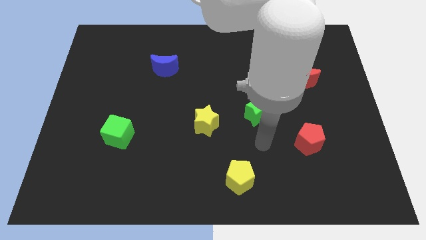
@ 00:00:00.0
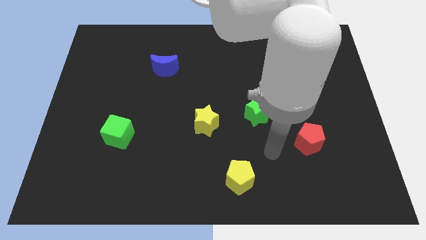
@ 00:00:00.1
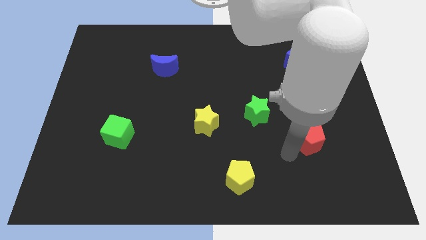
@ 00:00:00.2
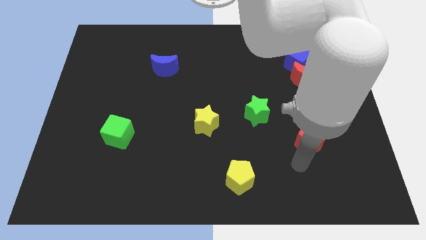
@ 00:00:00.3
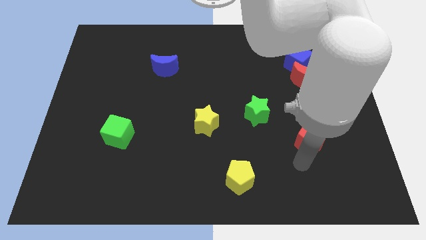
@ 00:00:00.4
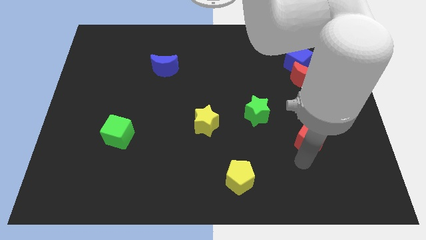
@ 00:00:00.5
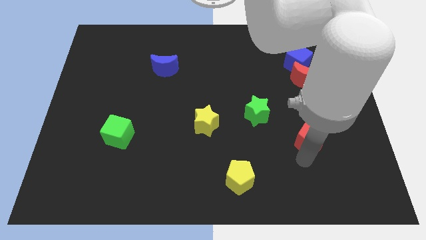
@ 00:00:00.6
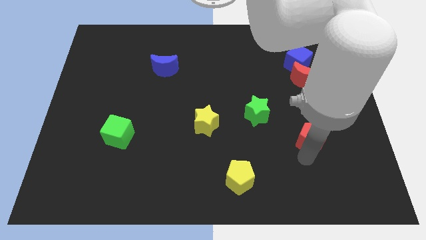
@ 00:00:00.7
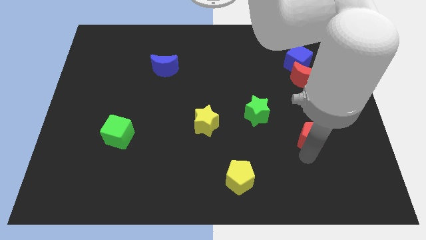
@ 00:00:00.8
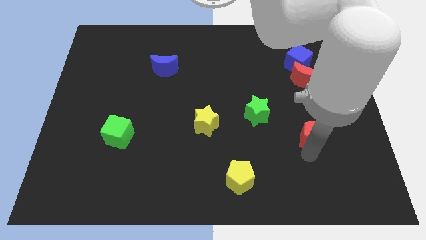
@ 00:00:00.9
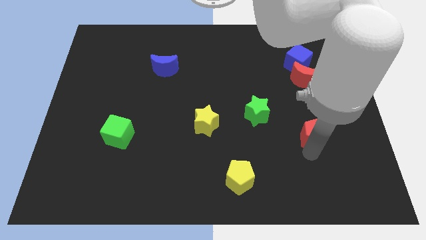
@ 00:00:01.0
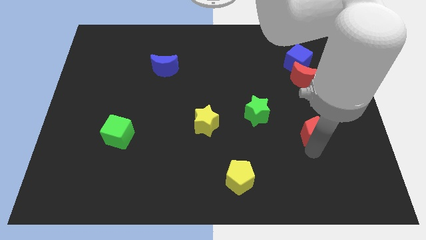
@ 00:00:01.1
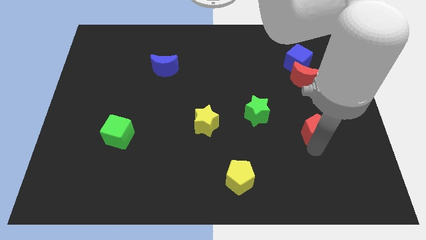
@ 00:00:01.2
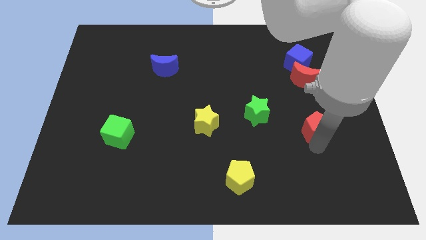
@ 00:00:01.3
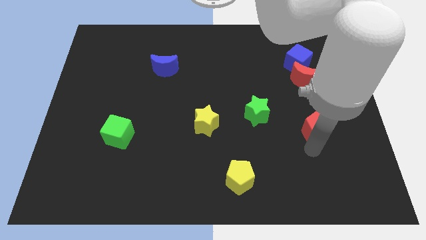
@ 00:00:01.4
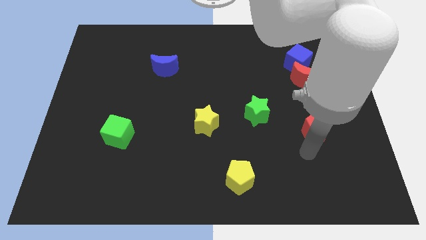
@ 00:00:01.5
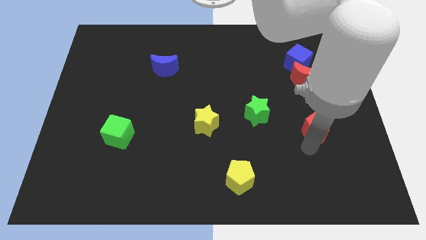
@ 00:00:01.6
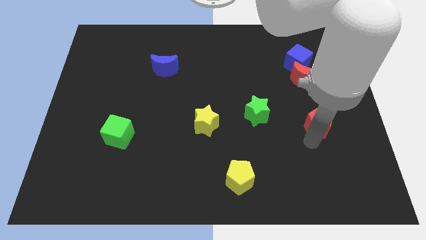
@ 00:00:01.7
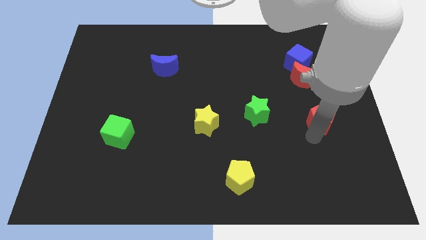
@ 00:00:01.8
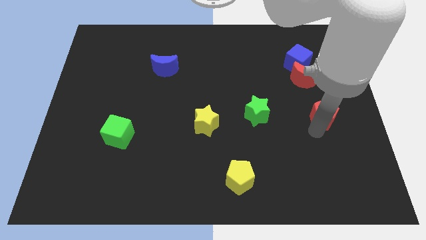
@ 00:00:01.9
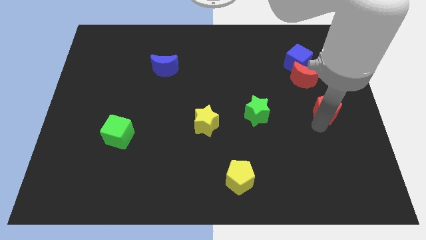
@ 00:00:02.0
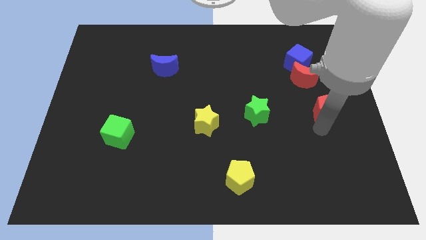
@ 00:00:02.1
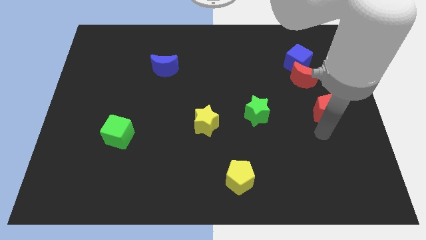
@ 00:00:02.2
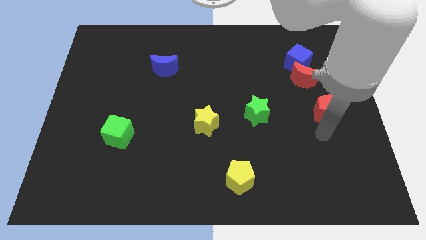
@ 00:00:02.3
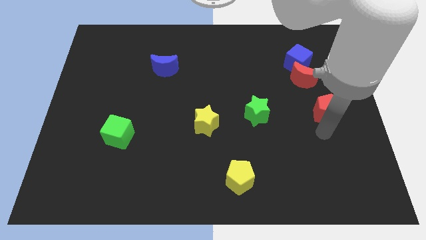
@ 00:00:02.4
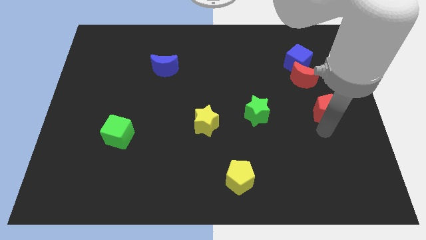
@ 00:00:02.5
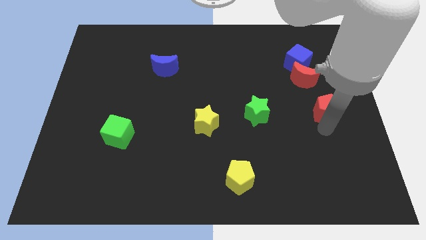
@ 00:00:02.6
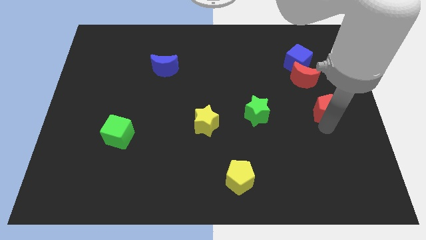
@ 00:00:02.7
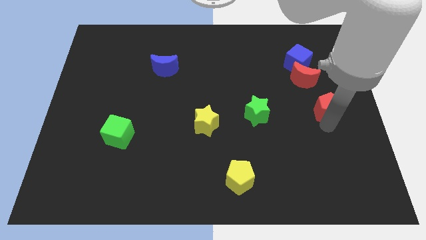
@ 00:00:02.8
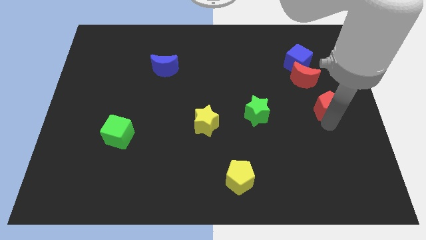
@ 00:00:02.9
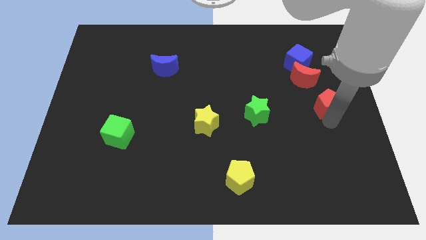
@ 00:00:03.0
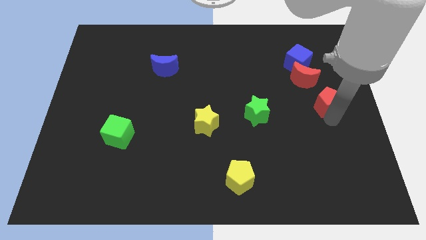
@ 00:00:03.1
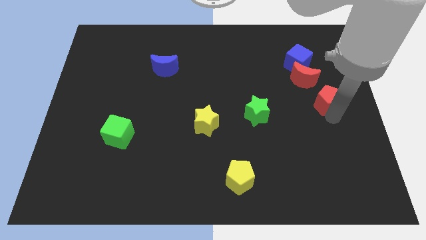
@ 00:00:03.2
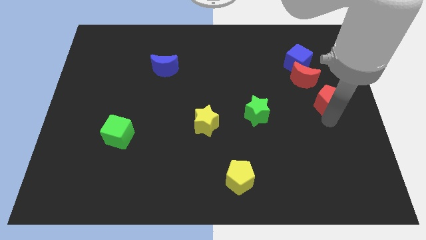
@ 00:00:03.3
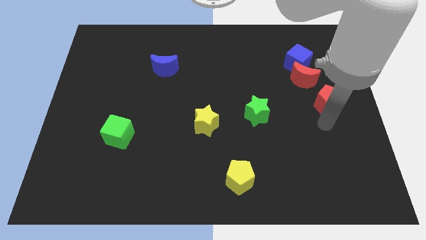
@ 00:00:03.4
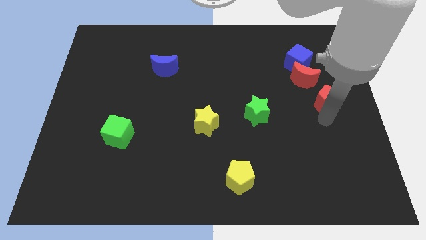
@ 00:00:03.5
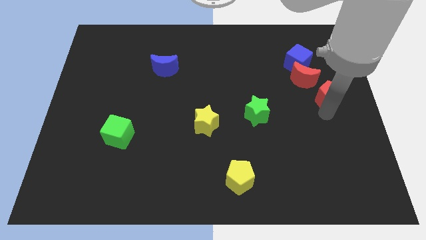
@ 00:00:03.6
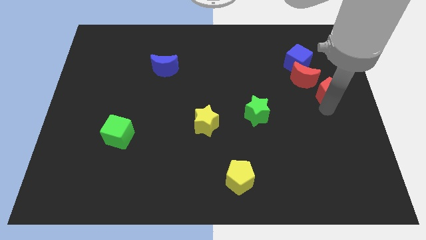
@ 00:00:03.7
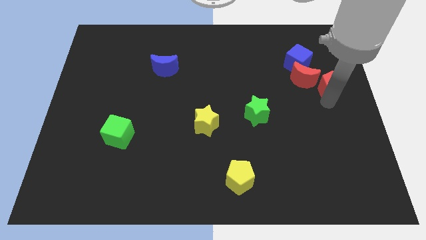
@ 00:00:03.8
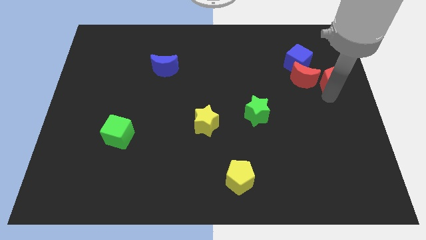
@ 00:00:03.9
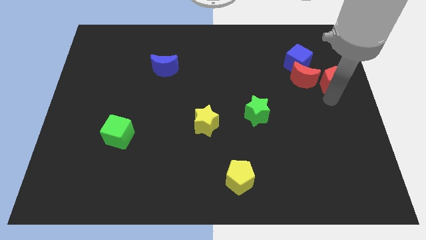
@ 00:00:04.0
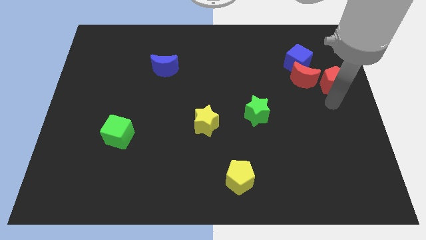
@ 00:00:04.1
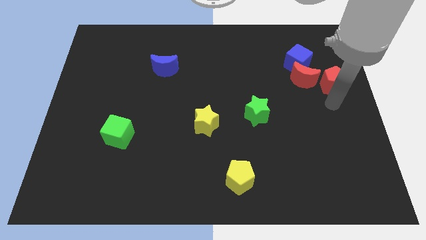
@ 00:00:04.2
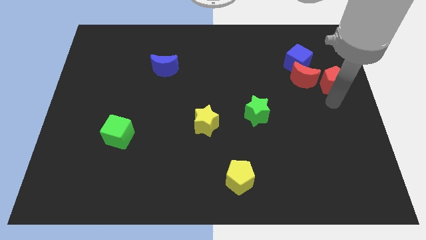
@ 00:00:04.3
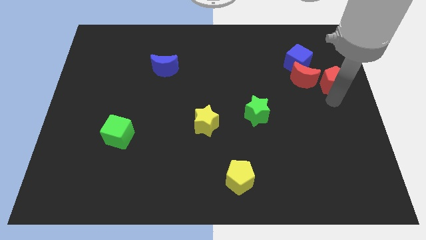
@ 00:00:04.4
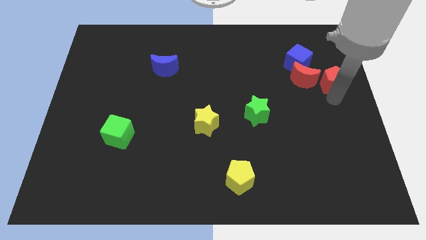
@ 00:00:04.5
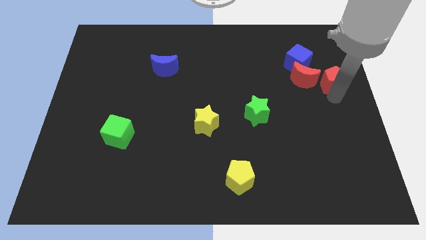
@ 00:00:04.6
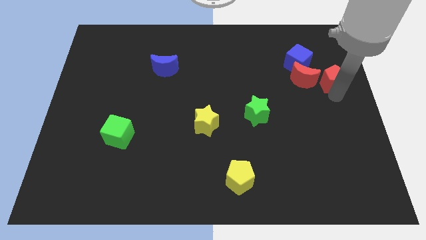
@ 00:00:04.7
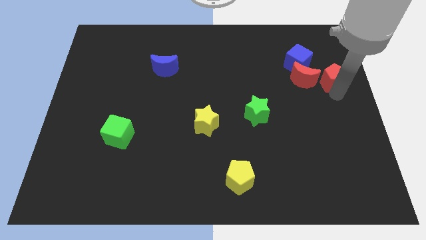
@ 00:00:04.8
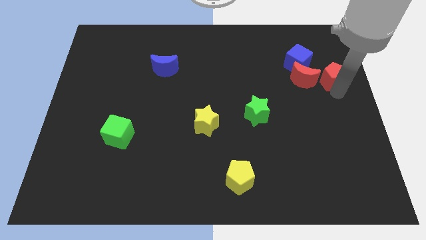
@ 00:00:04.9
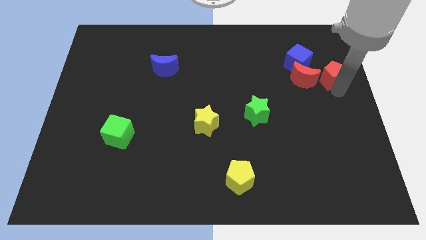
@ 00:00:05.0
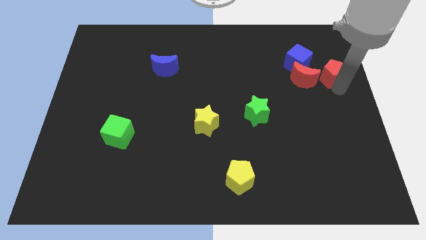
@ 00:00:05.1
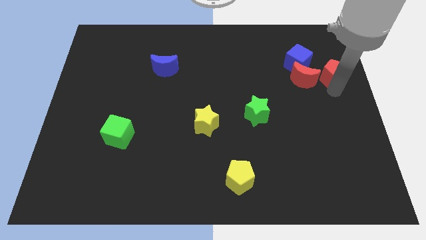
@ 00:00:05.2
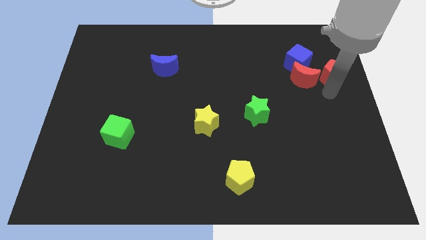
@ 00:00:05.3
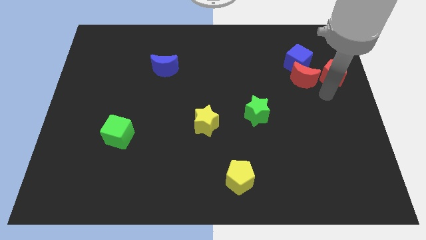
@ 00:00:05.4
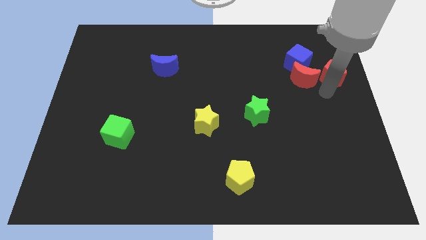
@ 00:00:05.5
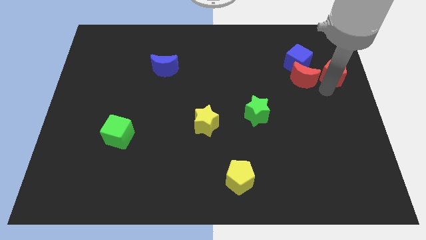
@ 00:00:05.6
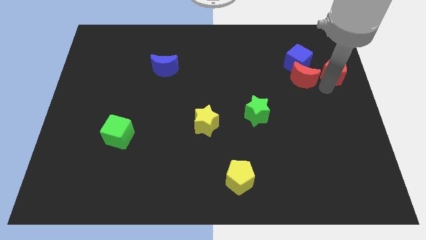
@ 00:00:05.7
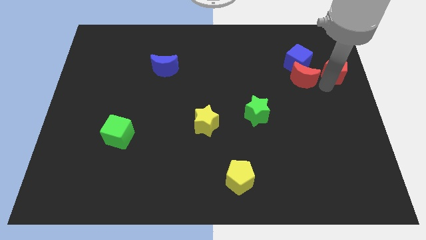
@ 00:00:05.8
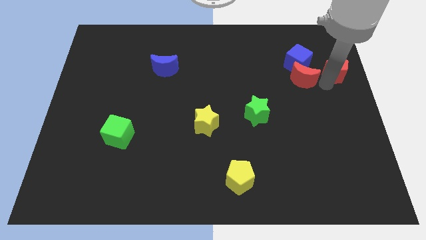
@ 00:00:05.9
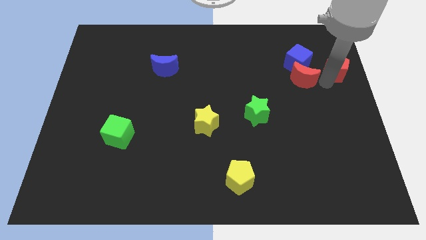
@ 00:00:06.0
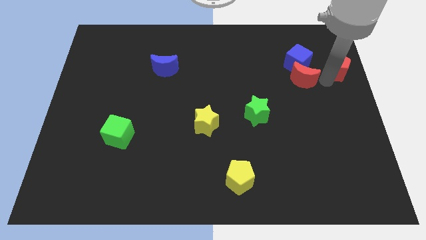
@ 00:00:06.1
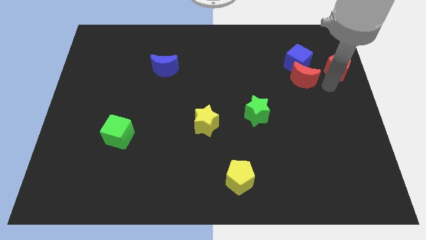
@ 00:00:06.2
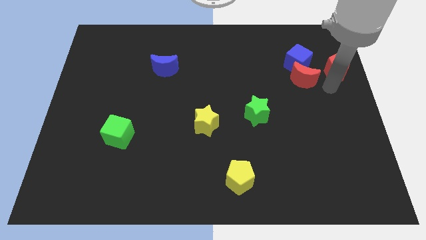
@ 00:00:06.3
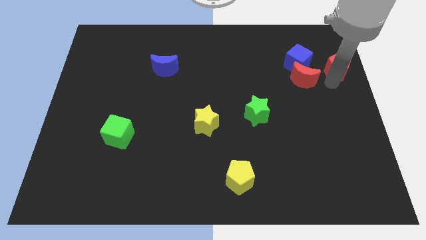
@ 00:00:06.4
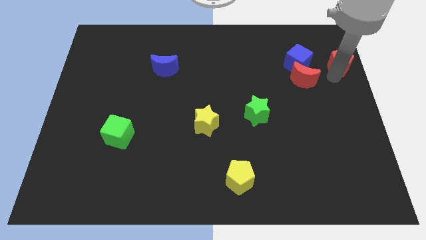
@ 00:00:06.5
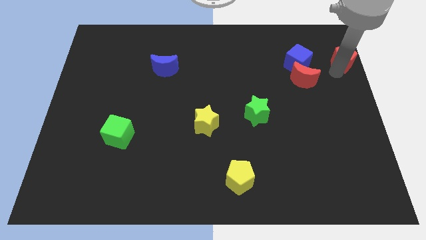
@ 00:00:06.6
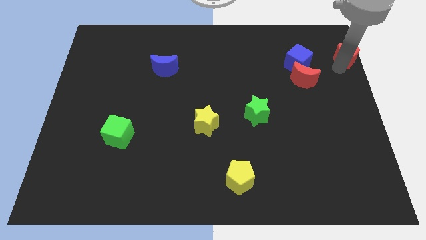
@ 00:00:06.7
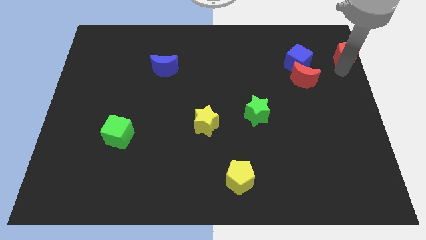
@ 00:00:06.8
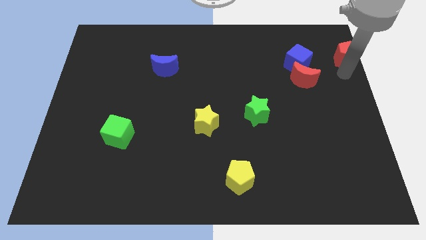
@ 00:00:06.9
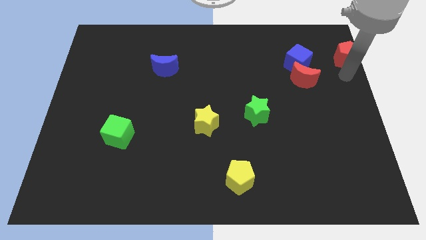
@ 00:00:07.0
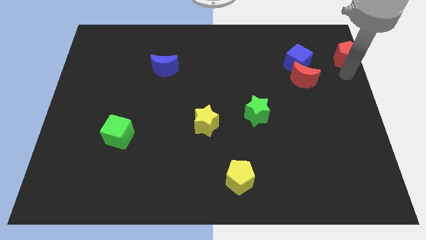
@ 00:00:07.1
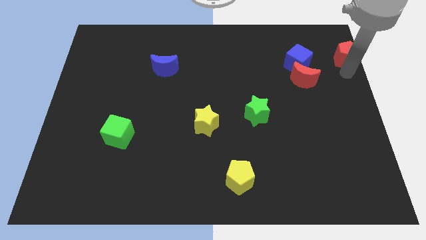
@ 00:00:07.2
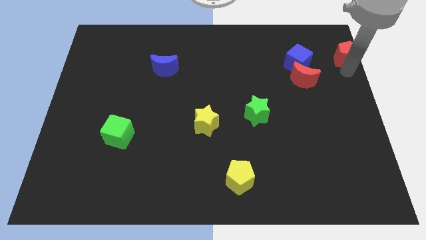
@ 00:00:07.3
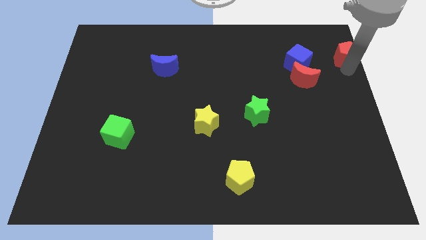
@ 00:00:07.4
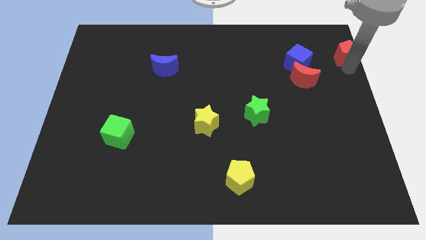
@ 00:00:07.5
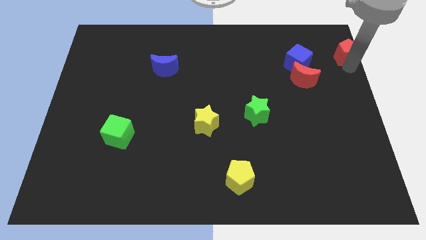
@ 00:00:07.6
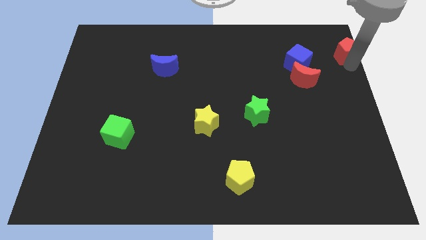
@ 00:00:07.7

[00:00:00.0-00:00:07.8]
put the red pentagon to the top right of the board
